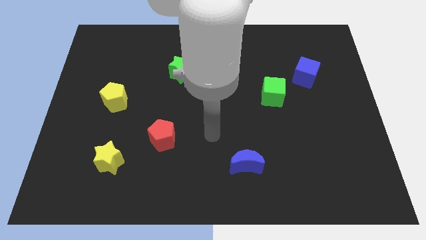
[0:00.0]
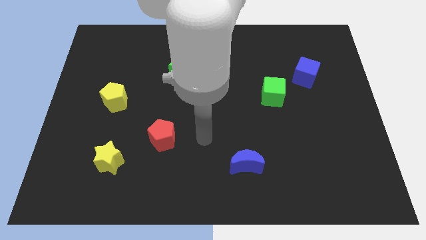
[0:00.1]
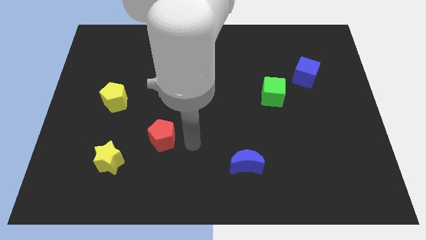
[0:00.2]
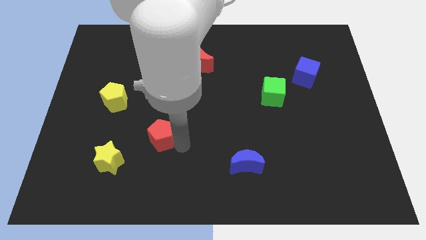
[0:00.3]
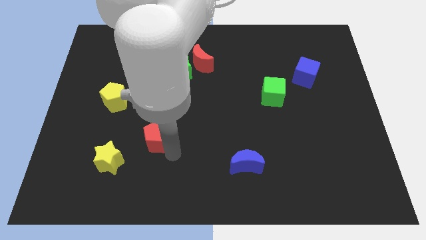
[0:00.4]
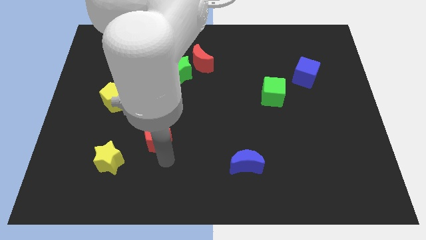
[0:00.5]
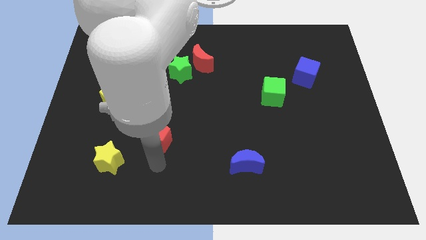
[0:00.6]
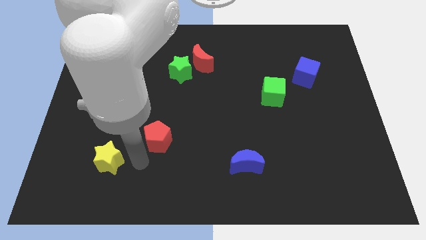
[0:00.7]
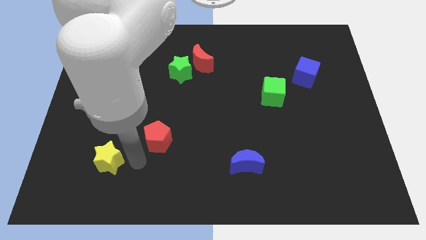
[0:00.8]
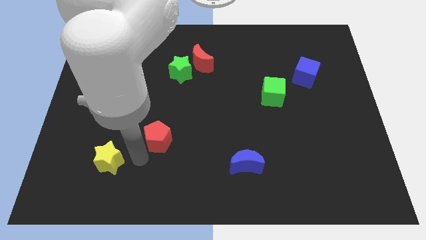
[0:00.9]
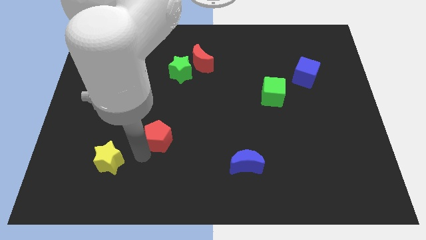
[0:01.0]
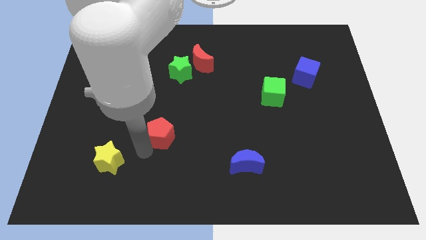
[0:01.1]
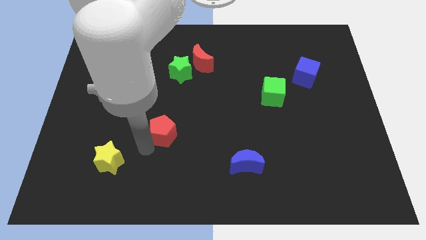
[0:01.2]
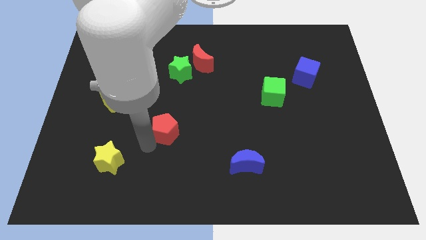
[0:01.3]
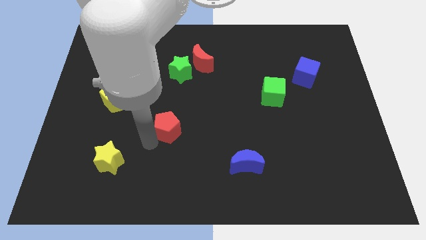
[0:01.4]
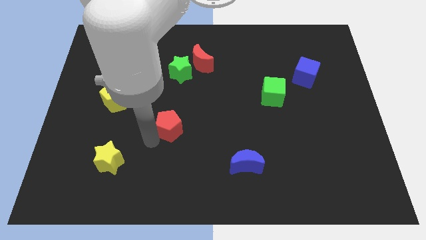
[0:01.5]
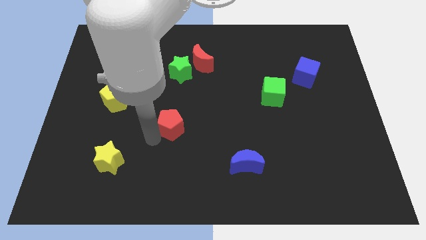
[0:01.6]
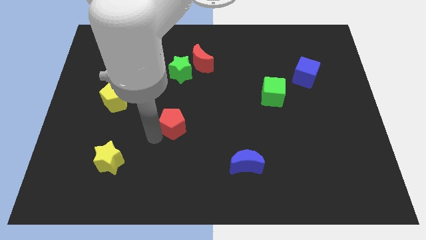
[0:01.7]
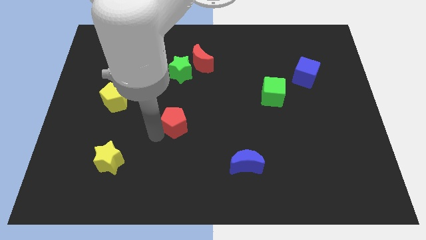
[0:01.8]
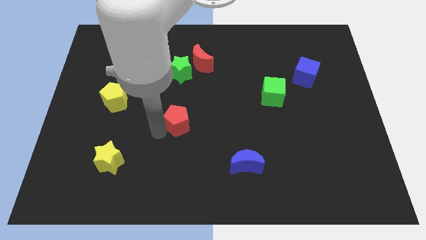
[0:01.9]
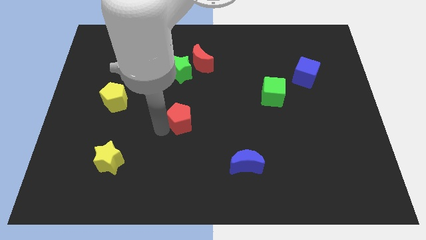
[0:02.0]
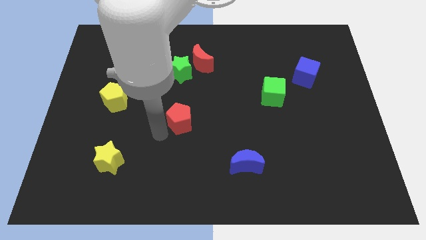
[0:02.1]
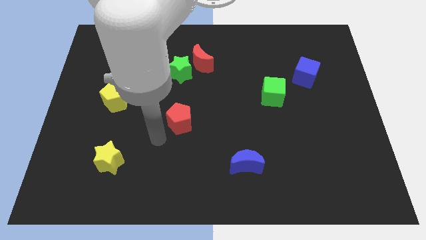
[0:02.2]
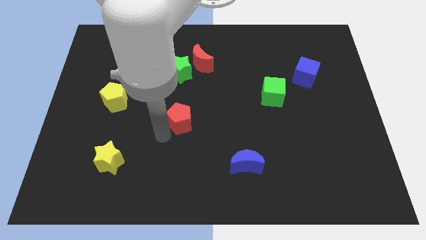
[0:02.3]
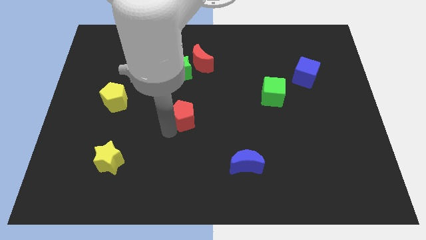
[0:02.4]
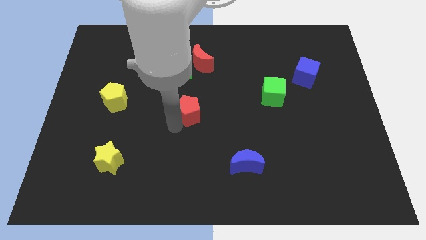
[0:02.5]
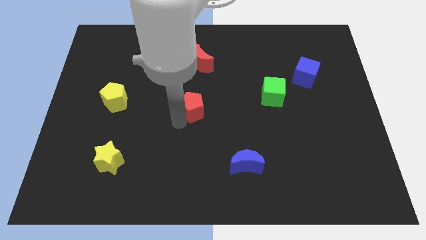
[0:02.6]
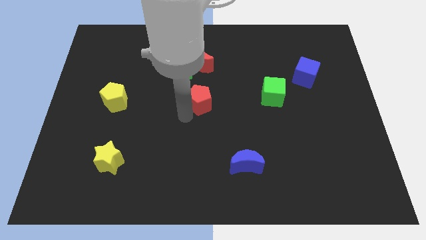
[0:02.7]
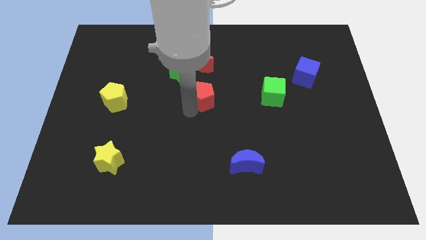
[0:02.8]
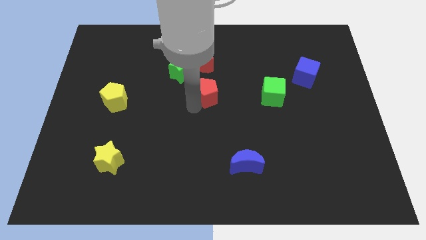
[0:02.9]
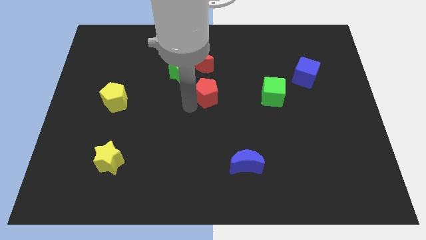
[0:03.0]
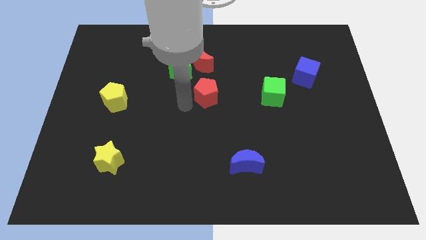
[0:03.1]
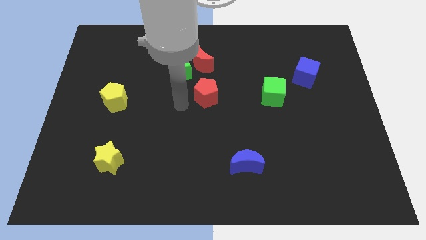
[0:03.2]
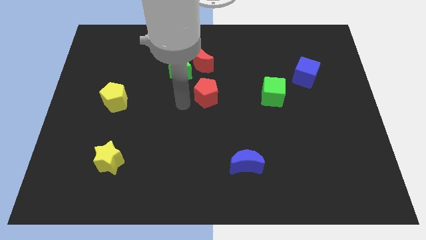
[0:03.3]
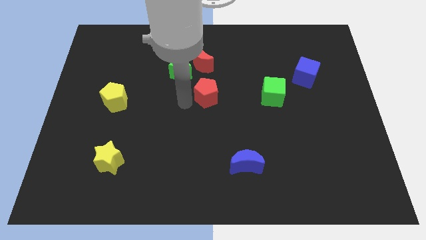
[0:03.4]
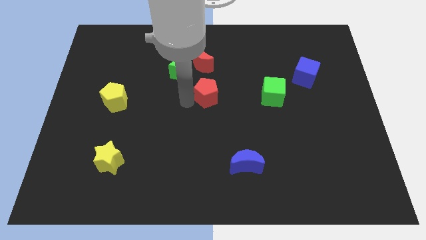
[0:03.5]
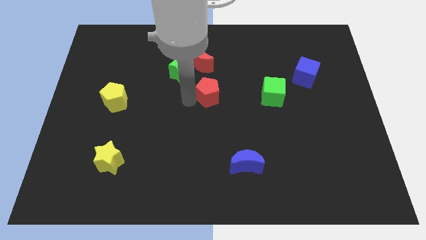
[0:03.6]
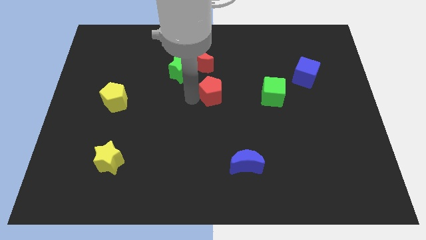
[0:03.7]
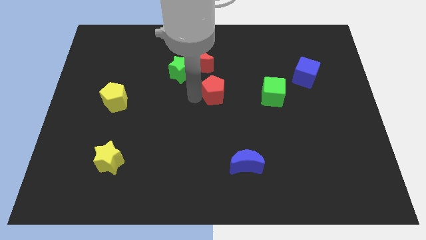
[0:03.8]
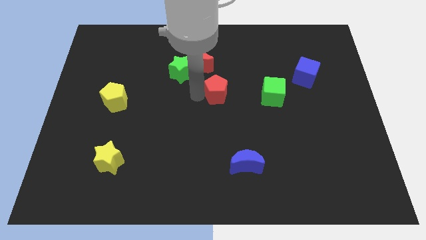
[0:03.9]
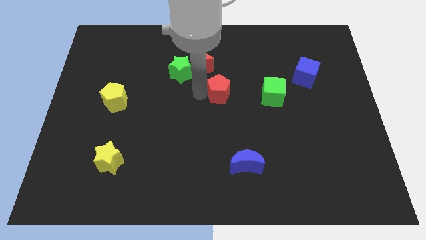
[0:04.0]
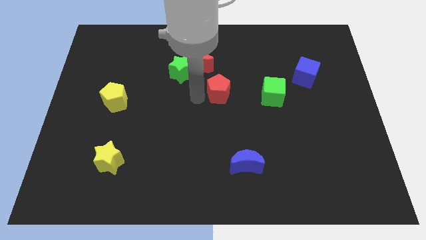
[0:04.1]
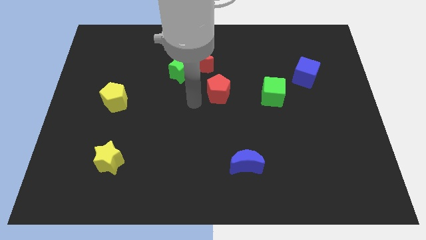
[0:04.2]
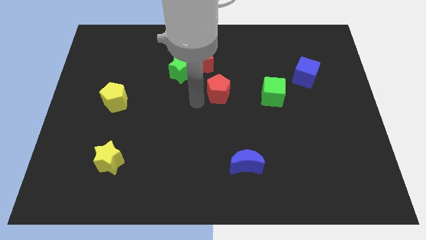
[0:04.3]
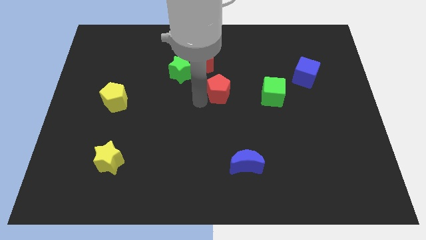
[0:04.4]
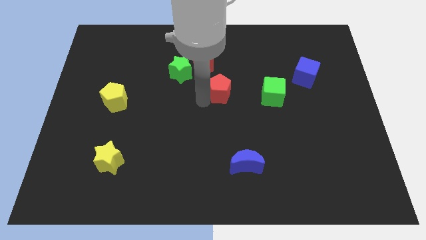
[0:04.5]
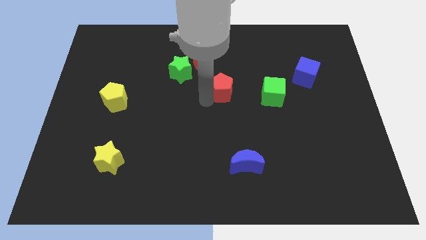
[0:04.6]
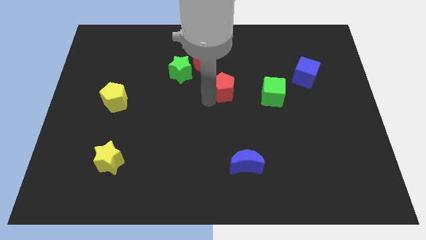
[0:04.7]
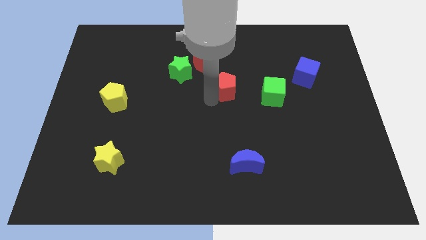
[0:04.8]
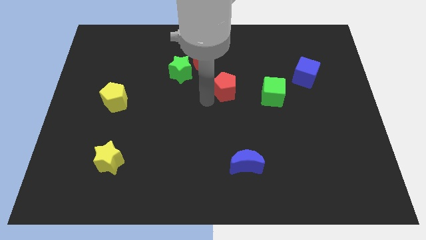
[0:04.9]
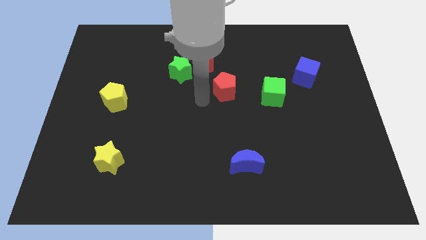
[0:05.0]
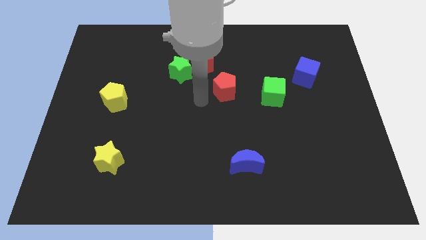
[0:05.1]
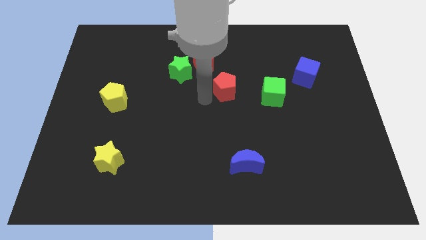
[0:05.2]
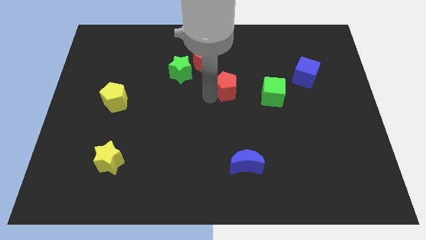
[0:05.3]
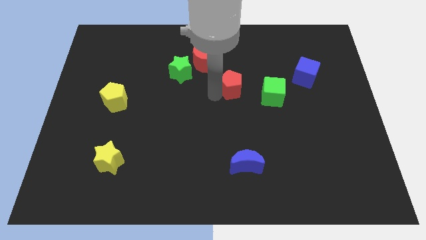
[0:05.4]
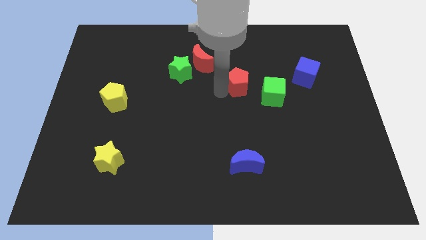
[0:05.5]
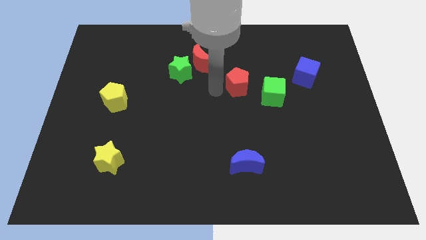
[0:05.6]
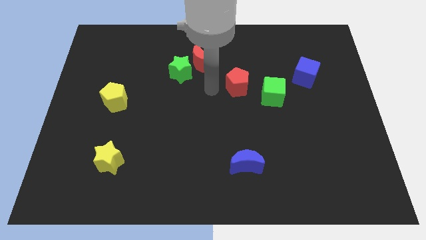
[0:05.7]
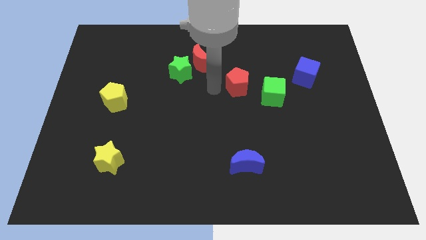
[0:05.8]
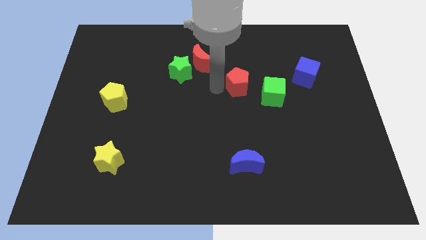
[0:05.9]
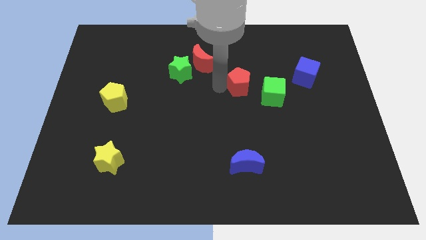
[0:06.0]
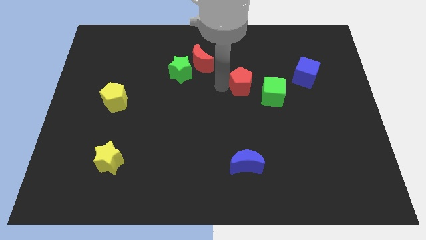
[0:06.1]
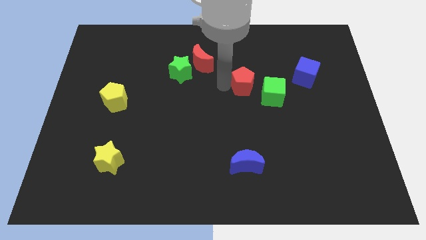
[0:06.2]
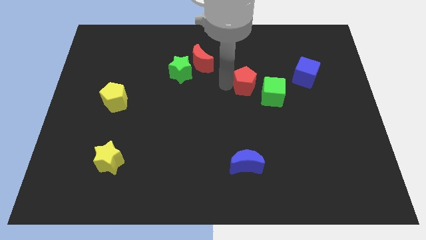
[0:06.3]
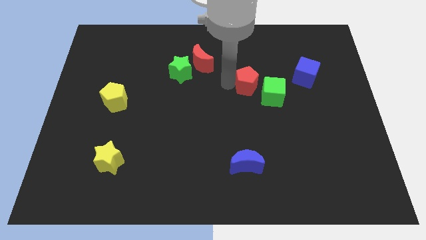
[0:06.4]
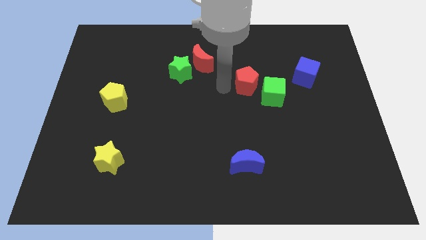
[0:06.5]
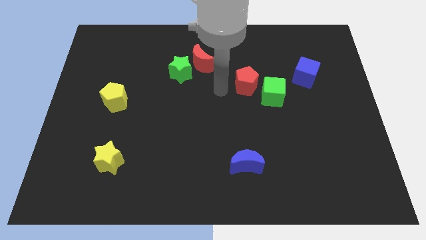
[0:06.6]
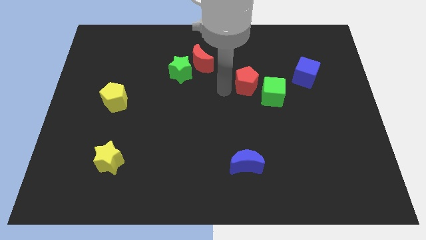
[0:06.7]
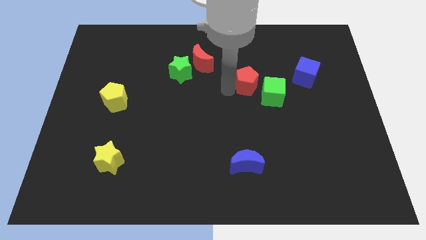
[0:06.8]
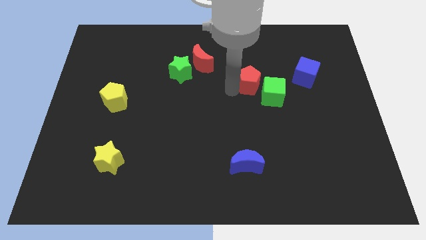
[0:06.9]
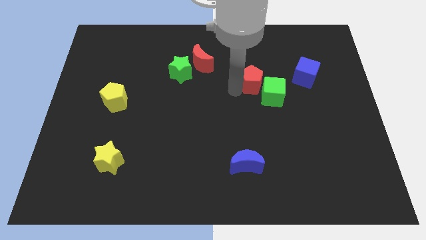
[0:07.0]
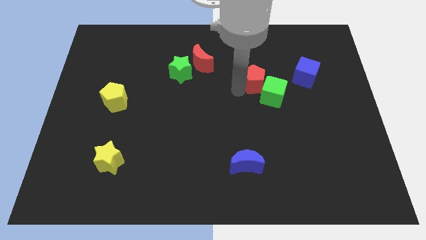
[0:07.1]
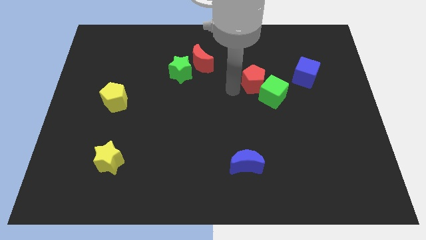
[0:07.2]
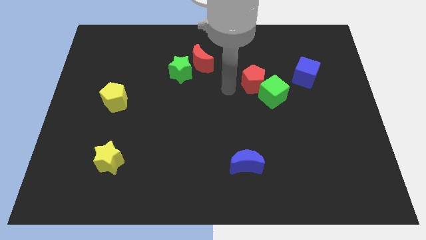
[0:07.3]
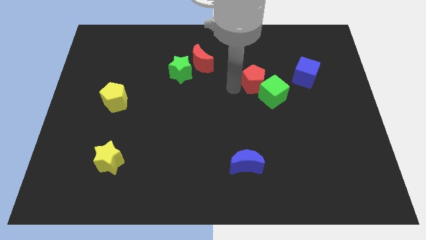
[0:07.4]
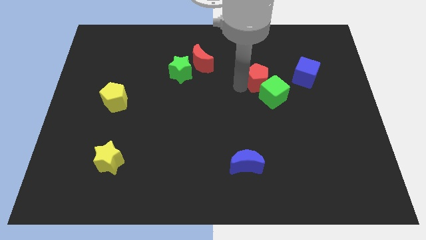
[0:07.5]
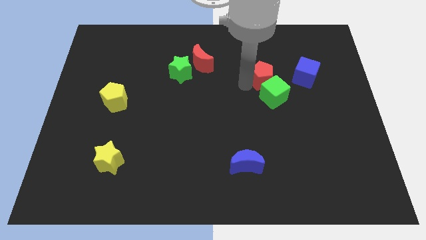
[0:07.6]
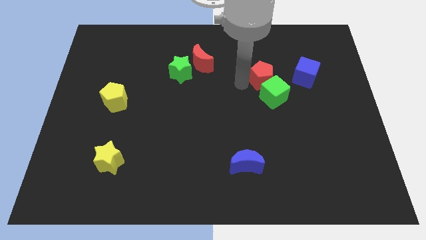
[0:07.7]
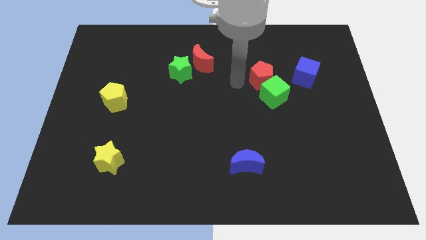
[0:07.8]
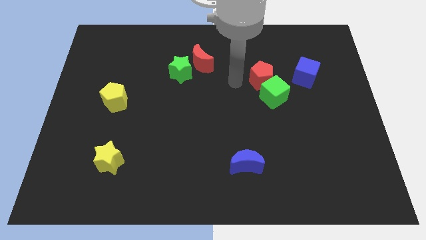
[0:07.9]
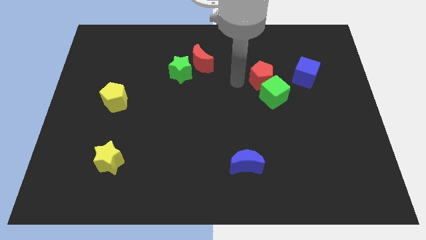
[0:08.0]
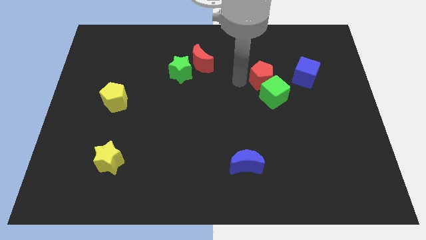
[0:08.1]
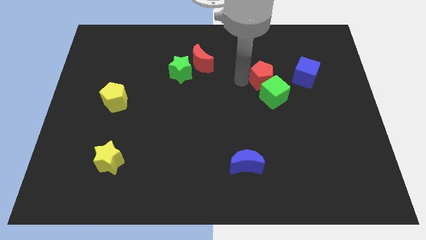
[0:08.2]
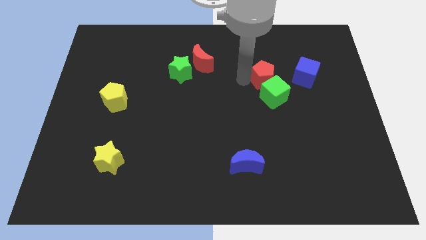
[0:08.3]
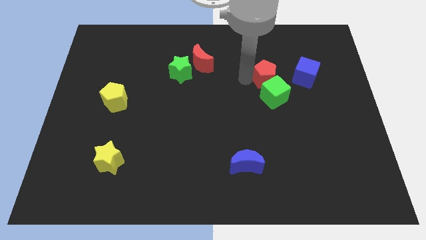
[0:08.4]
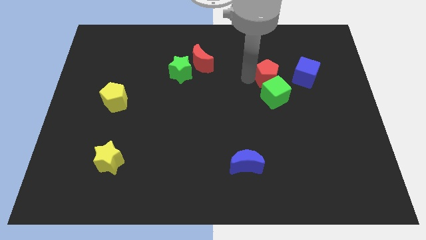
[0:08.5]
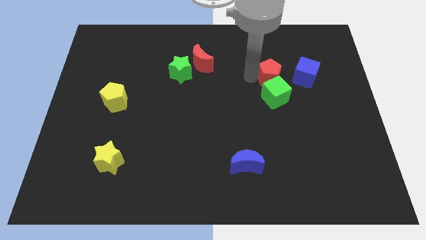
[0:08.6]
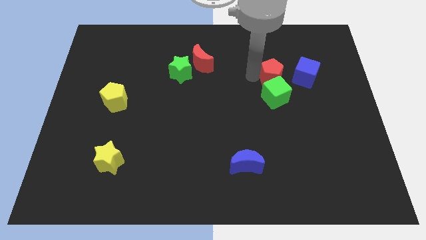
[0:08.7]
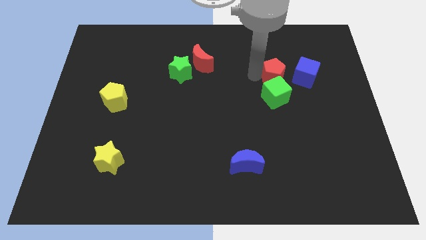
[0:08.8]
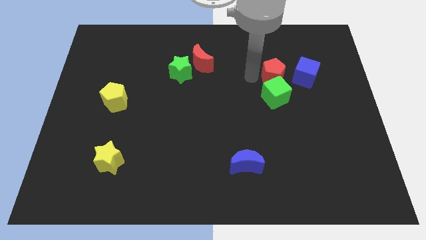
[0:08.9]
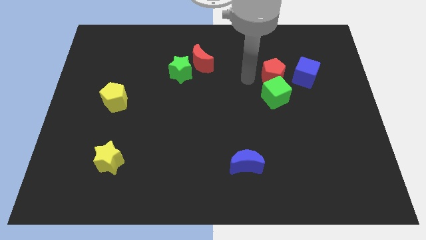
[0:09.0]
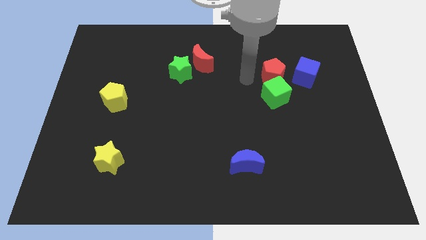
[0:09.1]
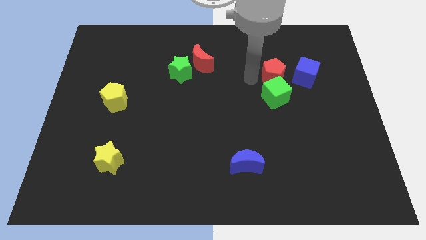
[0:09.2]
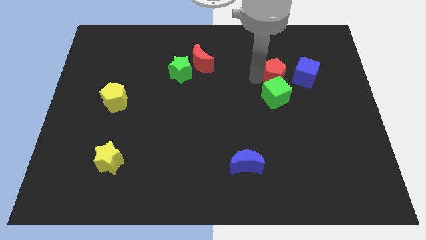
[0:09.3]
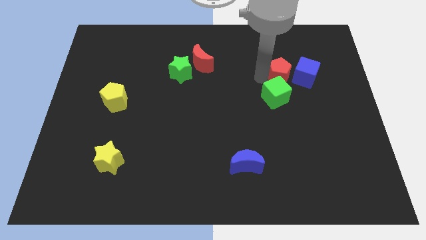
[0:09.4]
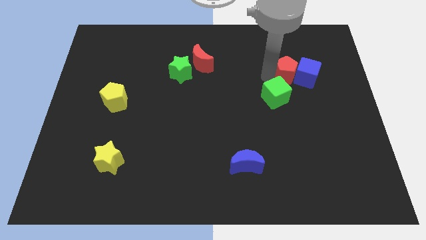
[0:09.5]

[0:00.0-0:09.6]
move the red pentagon close to the blue cube
